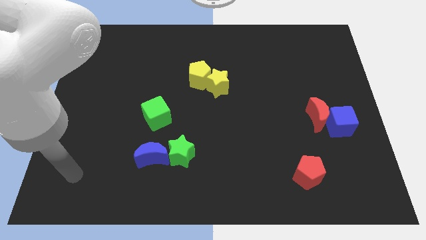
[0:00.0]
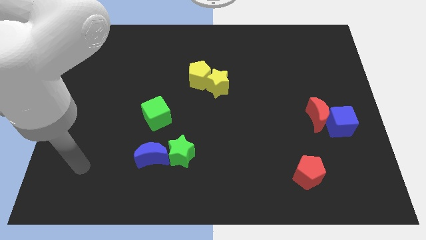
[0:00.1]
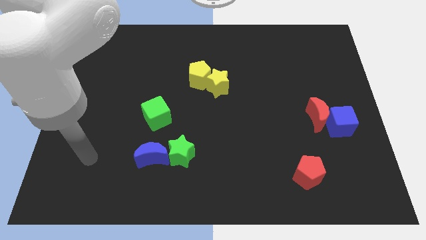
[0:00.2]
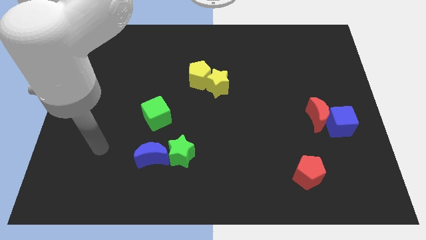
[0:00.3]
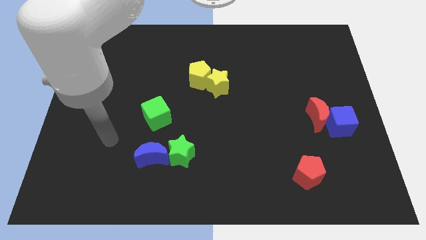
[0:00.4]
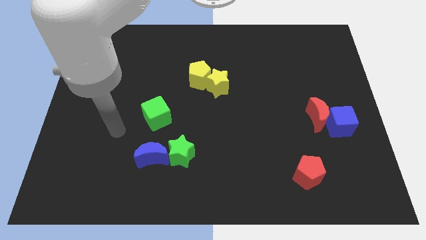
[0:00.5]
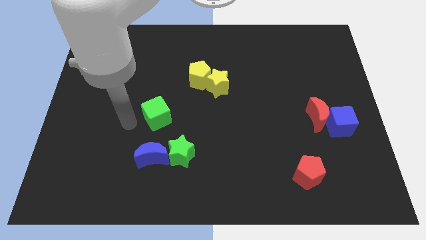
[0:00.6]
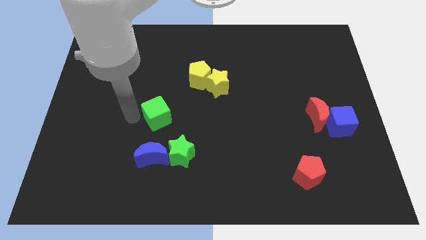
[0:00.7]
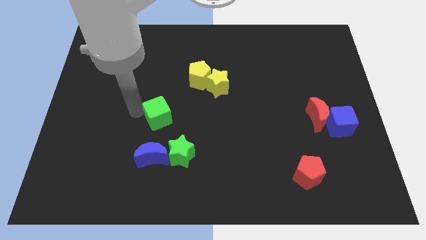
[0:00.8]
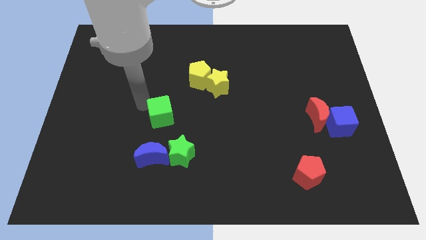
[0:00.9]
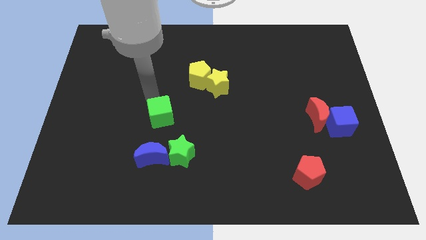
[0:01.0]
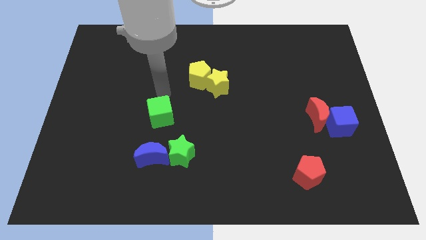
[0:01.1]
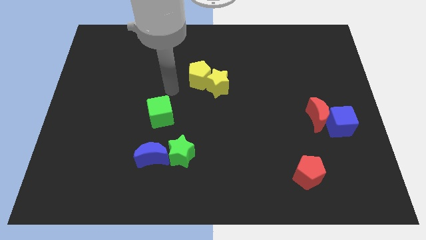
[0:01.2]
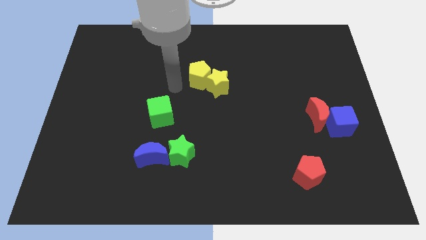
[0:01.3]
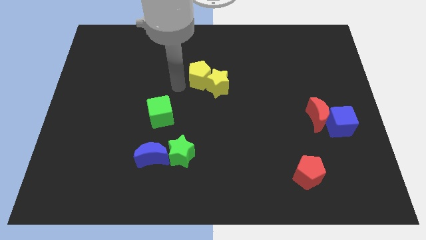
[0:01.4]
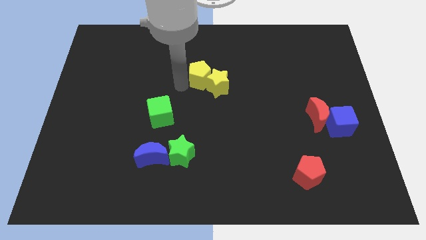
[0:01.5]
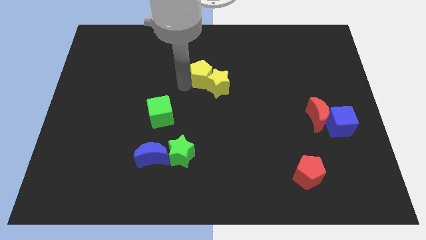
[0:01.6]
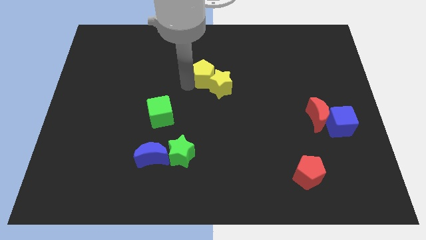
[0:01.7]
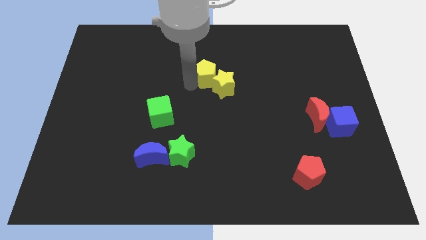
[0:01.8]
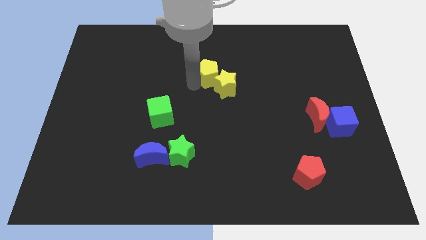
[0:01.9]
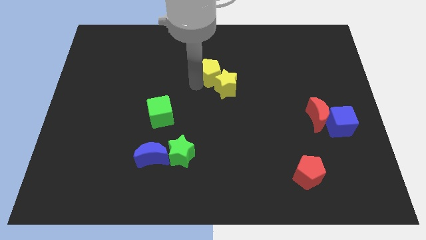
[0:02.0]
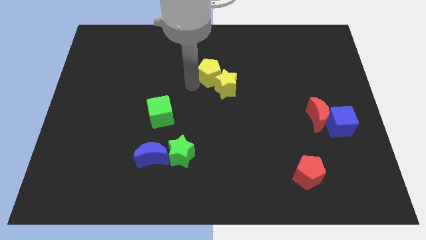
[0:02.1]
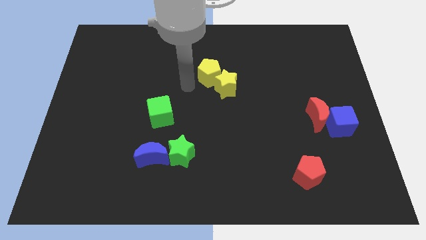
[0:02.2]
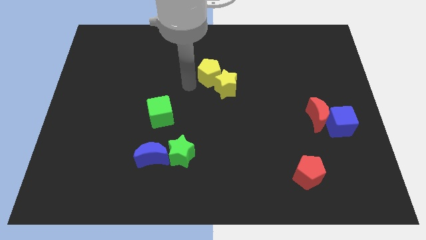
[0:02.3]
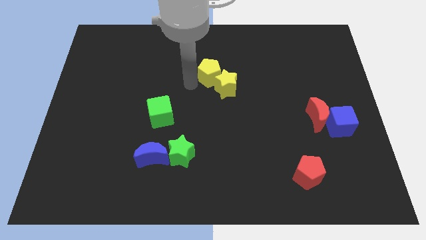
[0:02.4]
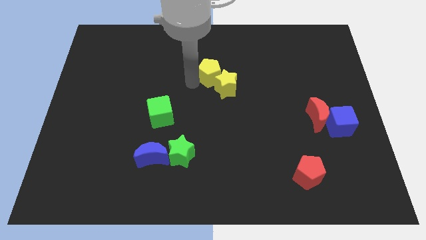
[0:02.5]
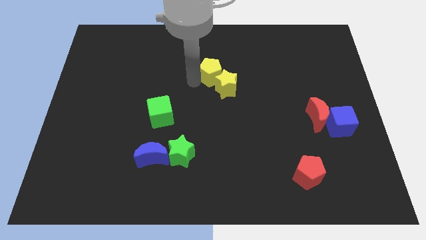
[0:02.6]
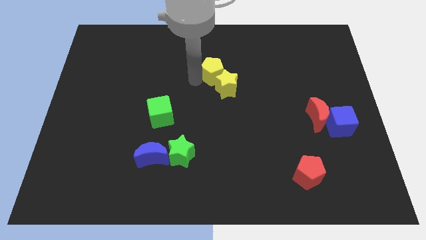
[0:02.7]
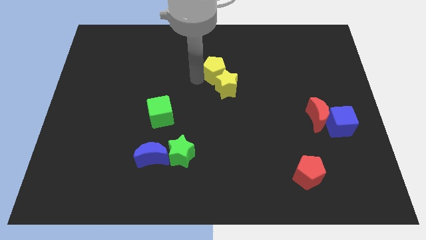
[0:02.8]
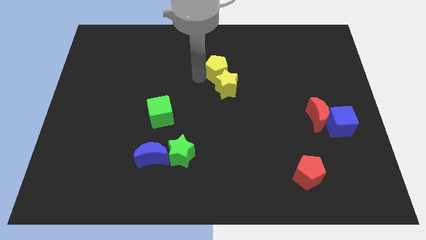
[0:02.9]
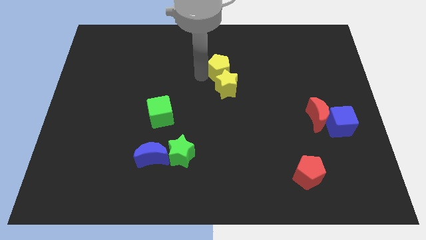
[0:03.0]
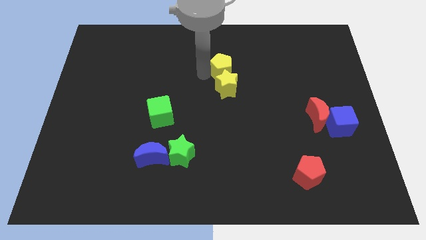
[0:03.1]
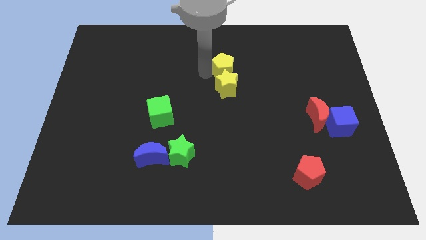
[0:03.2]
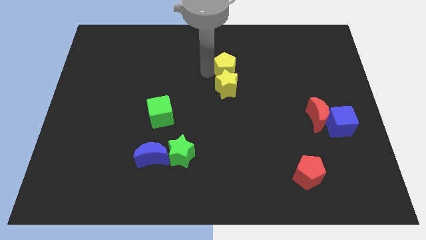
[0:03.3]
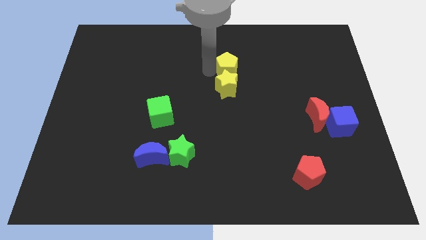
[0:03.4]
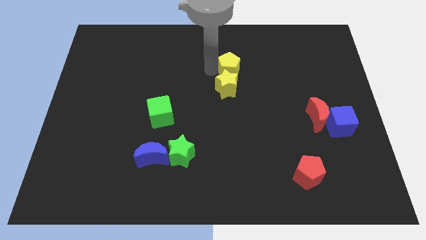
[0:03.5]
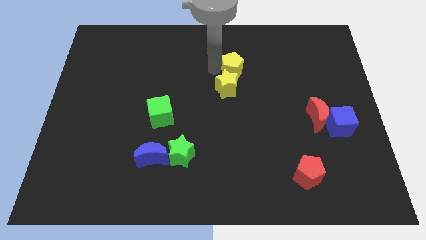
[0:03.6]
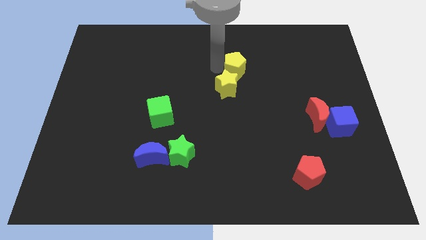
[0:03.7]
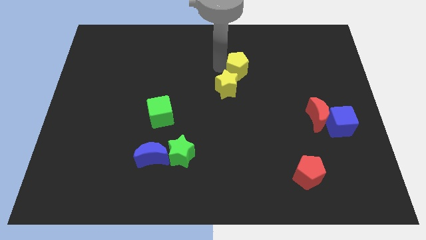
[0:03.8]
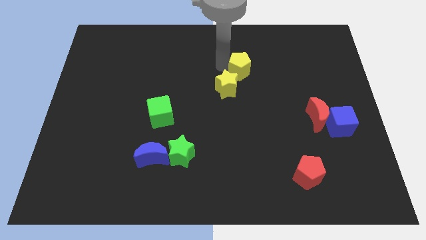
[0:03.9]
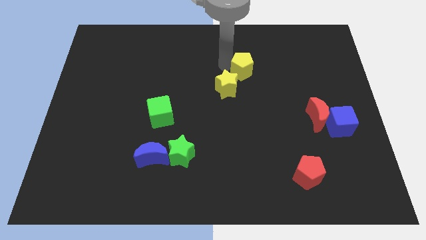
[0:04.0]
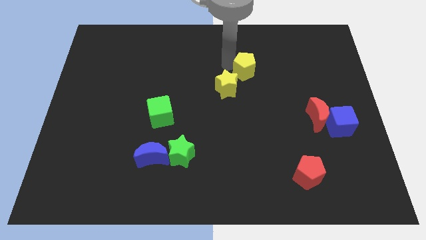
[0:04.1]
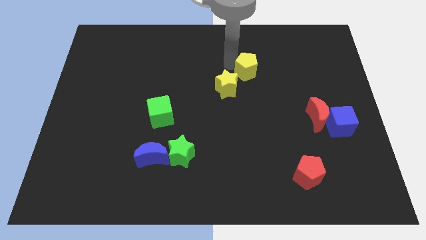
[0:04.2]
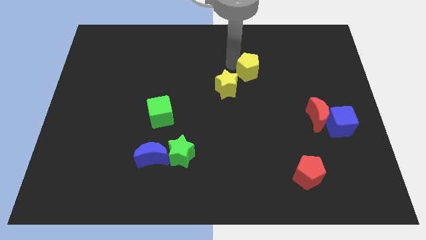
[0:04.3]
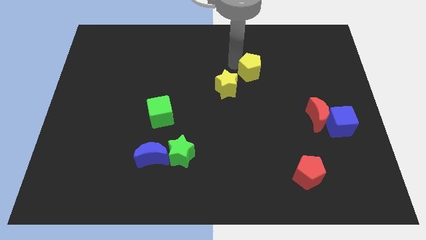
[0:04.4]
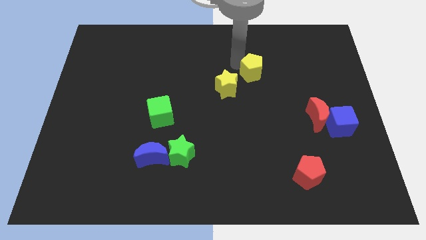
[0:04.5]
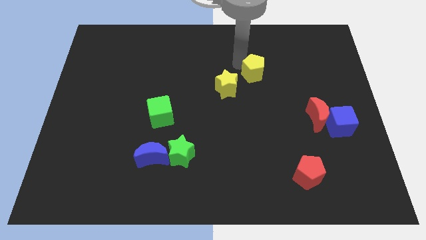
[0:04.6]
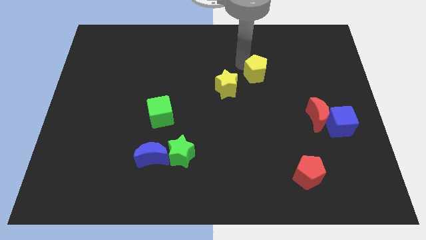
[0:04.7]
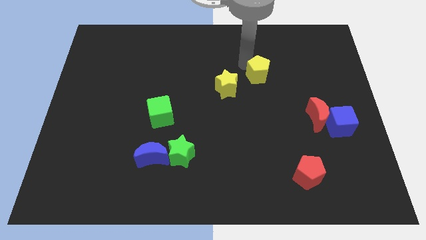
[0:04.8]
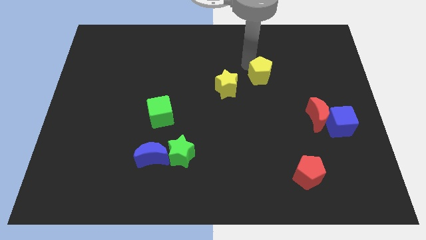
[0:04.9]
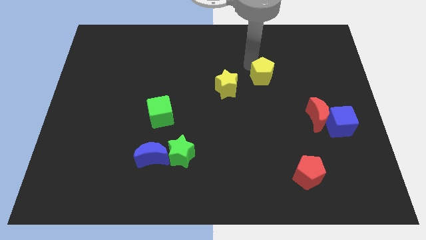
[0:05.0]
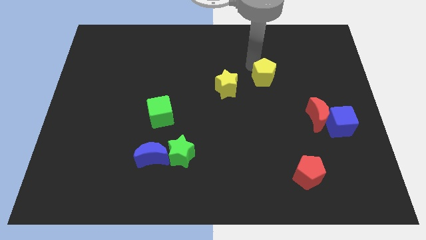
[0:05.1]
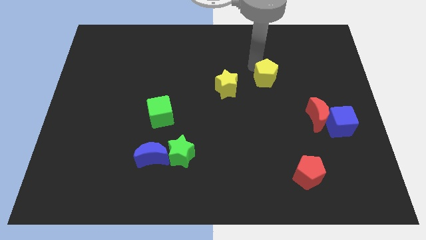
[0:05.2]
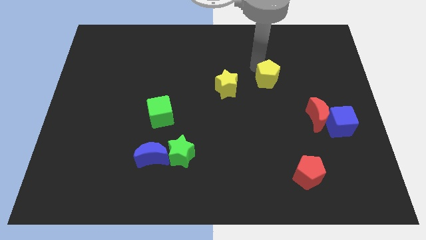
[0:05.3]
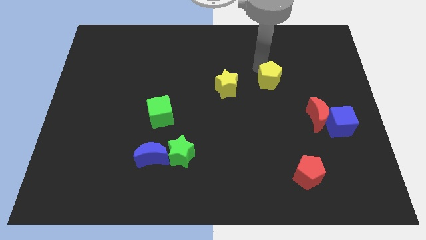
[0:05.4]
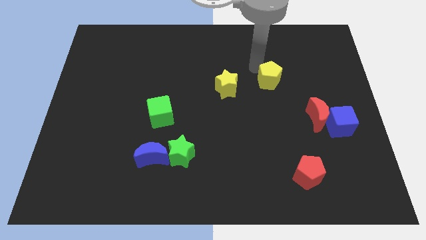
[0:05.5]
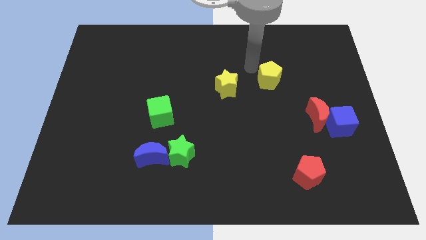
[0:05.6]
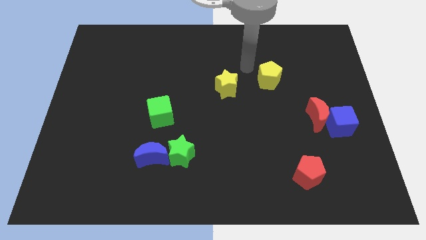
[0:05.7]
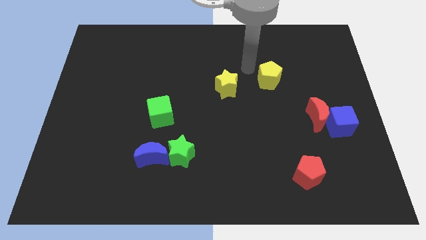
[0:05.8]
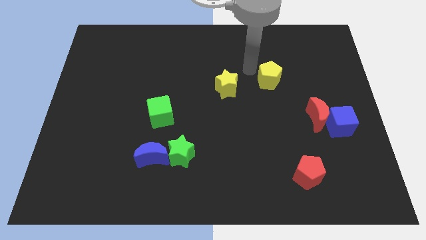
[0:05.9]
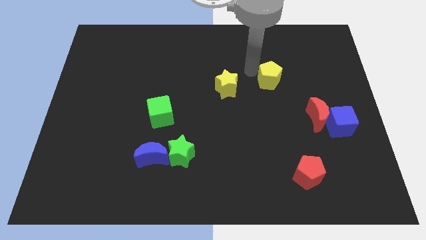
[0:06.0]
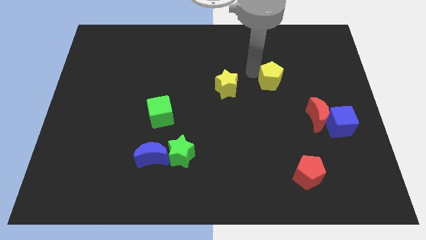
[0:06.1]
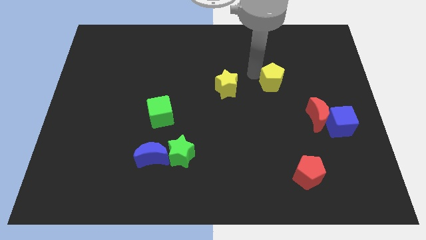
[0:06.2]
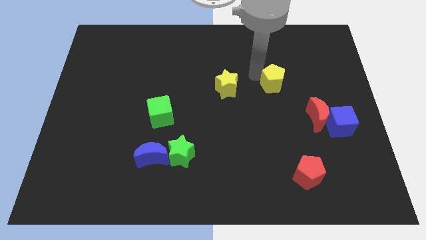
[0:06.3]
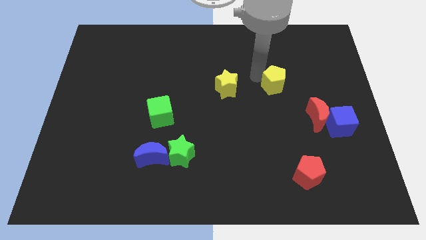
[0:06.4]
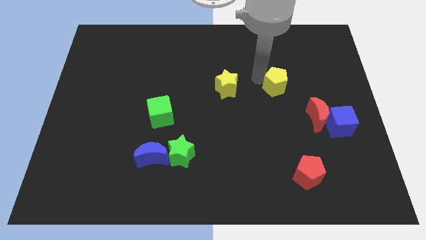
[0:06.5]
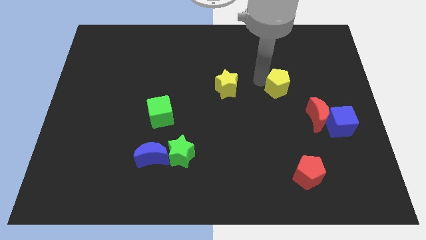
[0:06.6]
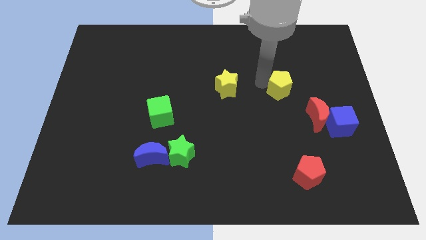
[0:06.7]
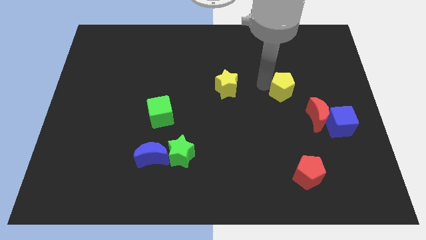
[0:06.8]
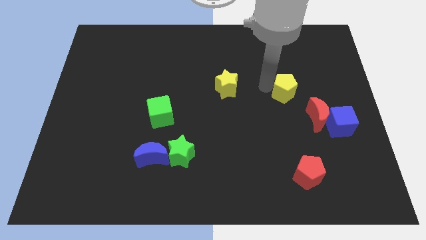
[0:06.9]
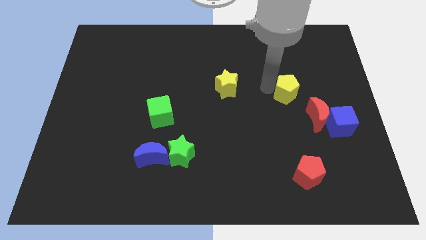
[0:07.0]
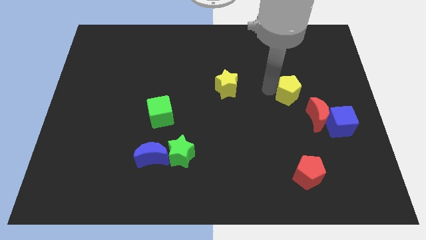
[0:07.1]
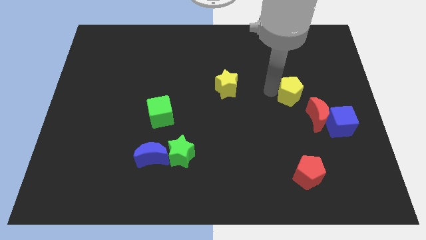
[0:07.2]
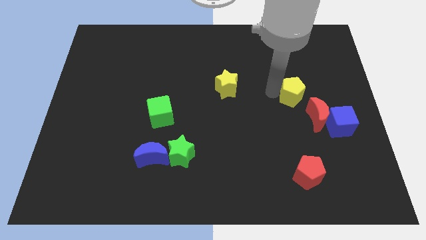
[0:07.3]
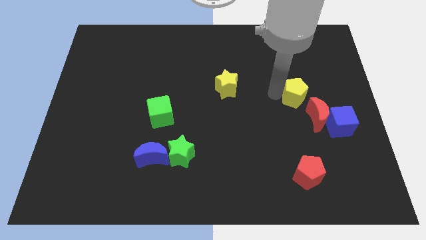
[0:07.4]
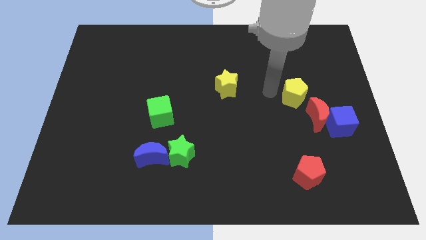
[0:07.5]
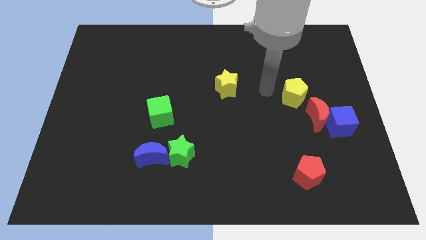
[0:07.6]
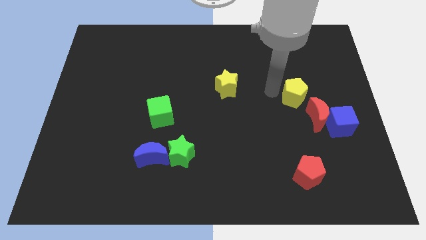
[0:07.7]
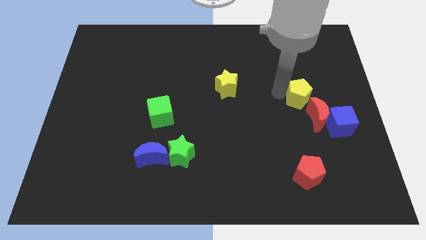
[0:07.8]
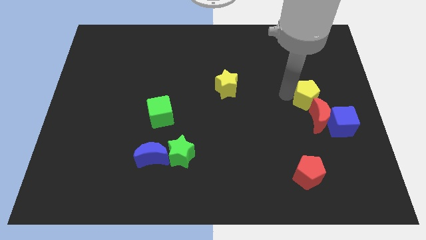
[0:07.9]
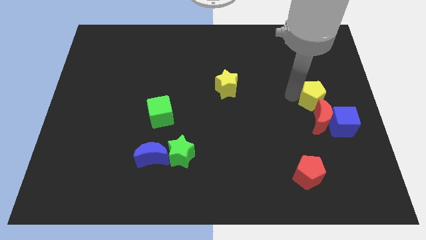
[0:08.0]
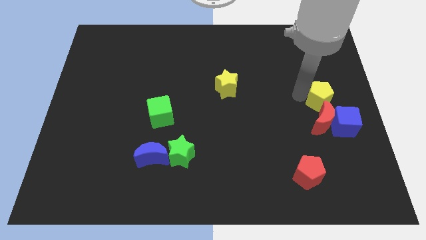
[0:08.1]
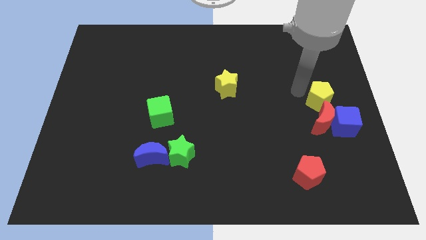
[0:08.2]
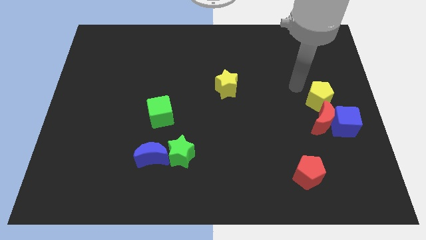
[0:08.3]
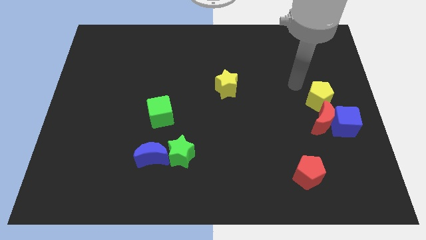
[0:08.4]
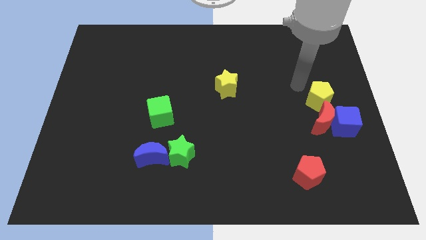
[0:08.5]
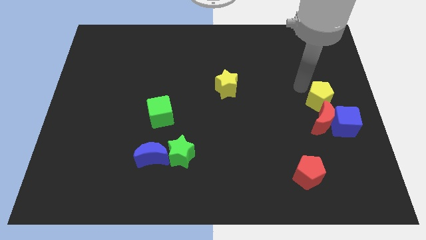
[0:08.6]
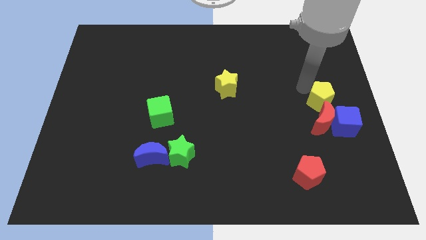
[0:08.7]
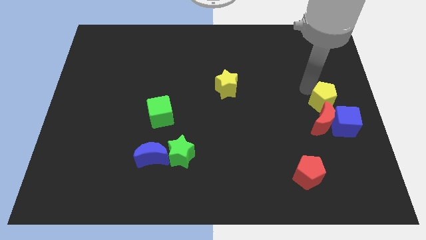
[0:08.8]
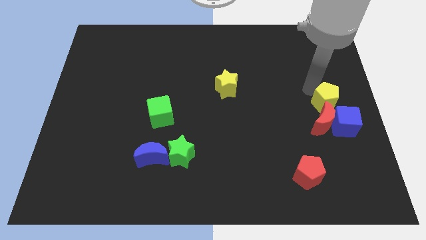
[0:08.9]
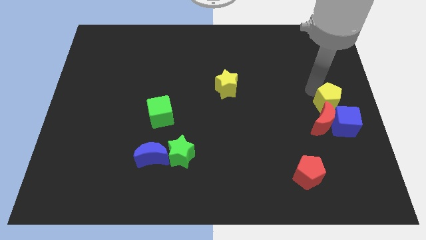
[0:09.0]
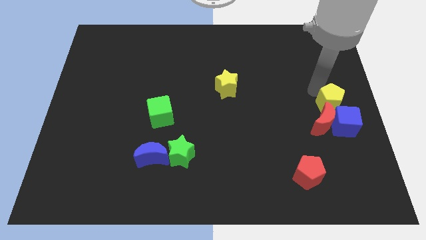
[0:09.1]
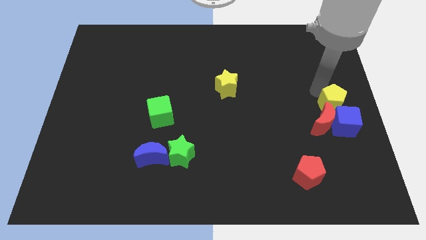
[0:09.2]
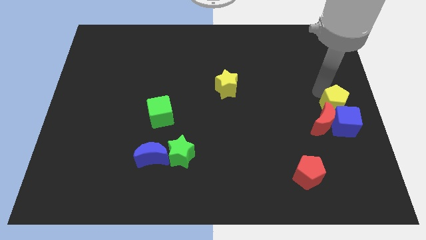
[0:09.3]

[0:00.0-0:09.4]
move the yellow pentagon next to the blue cube
